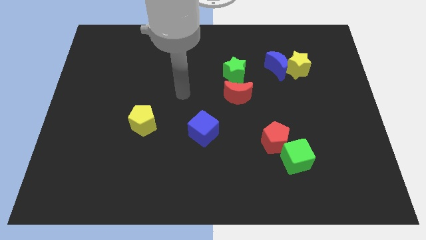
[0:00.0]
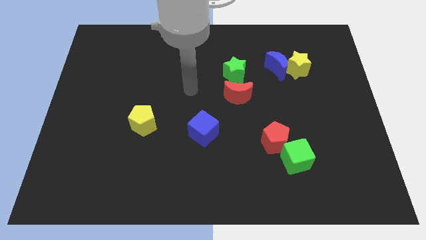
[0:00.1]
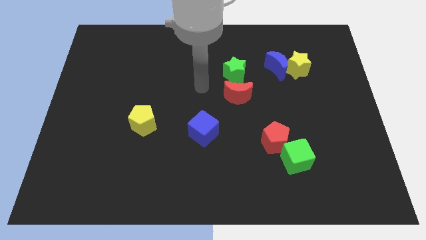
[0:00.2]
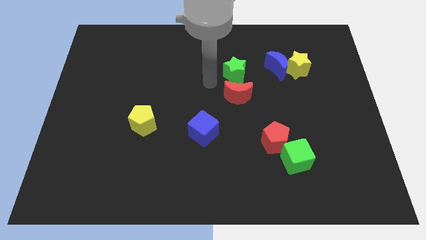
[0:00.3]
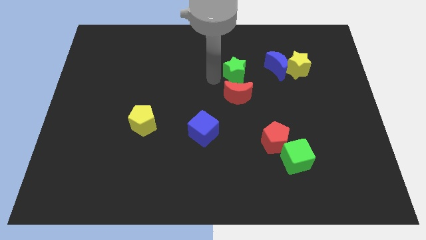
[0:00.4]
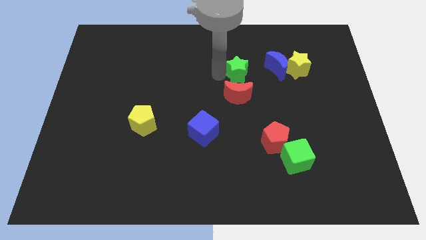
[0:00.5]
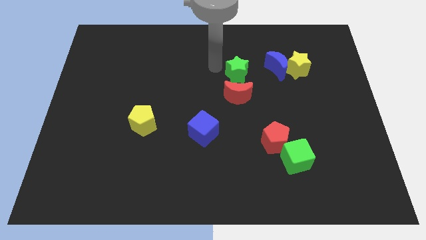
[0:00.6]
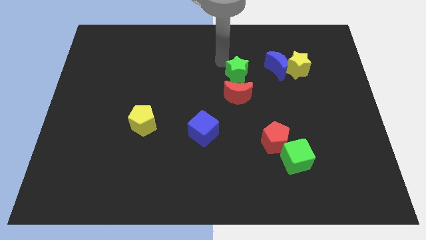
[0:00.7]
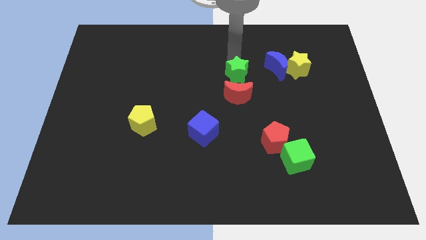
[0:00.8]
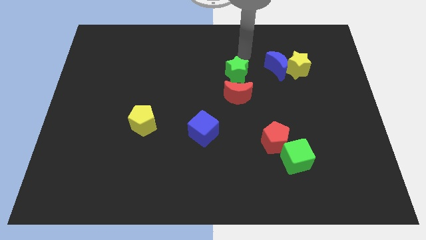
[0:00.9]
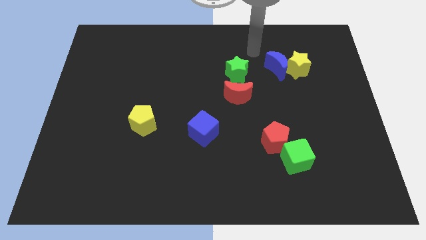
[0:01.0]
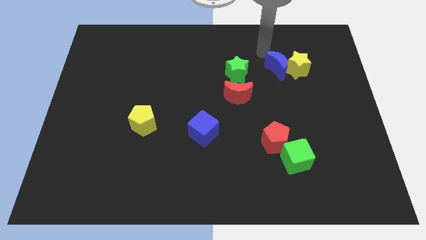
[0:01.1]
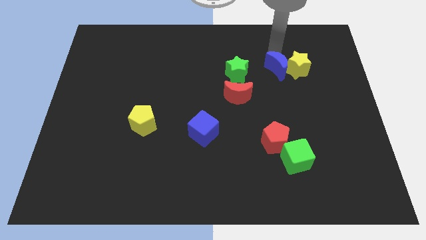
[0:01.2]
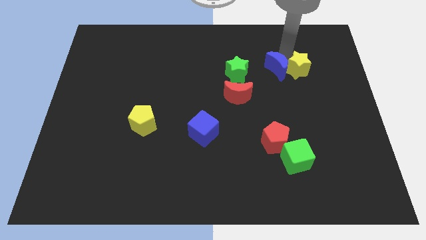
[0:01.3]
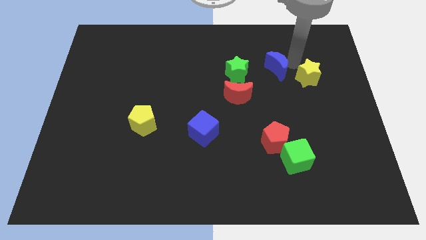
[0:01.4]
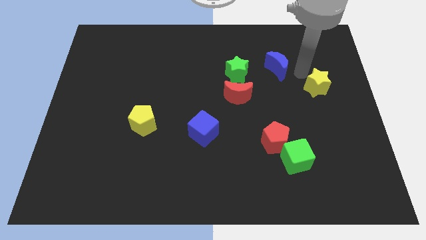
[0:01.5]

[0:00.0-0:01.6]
pull the blue moon apart from the yellow star

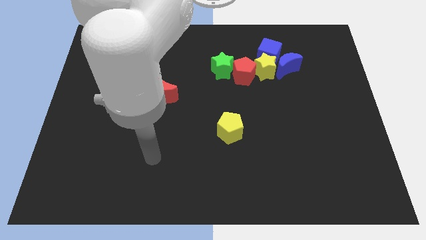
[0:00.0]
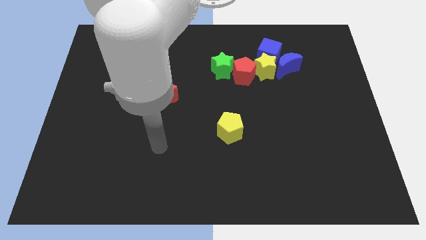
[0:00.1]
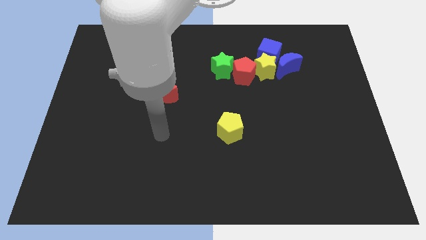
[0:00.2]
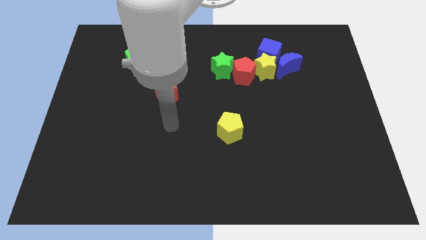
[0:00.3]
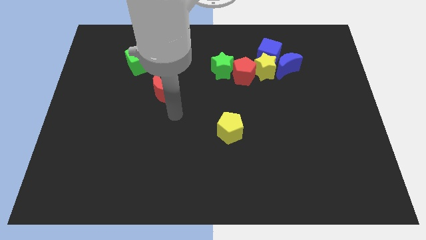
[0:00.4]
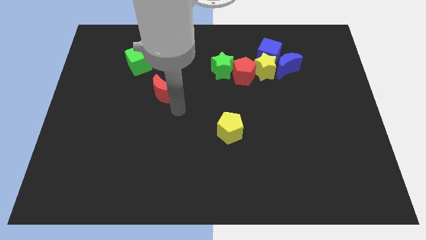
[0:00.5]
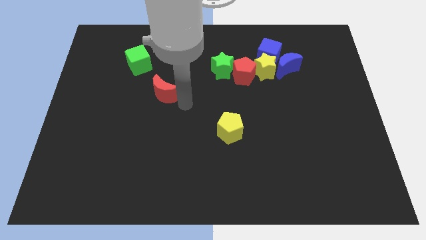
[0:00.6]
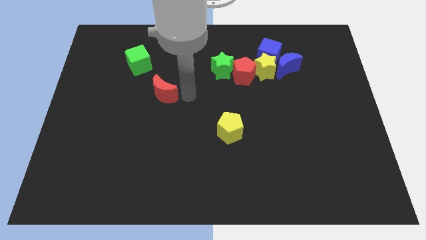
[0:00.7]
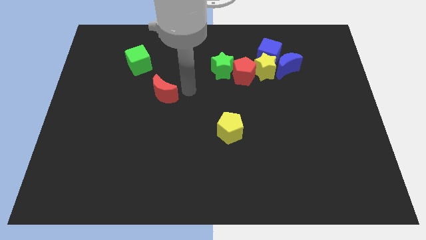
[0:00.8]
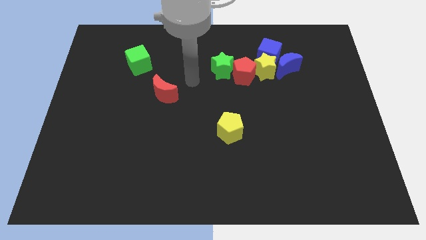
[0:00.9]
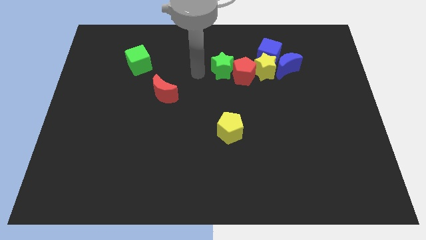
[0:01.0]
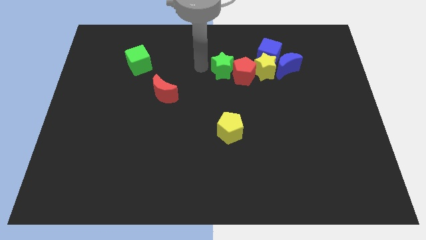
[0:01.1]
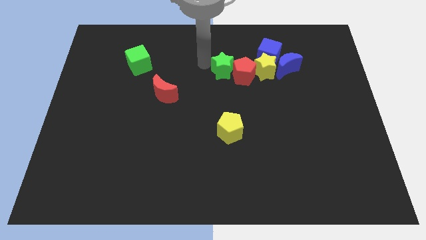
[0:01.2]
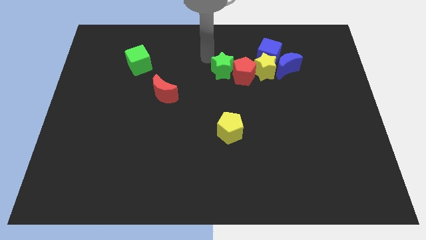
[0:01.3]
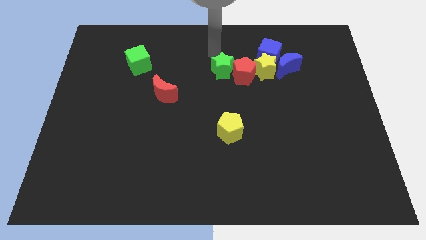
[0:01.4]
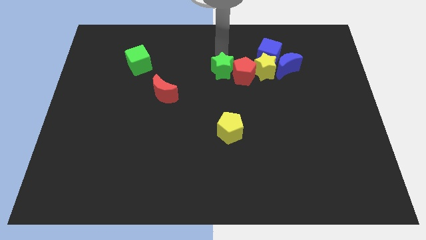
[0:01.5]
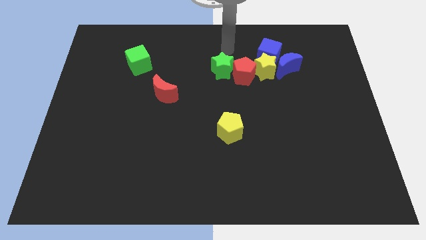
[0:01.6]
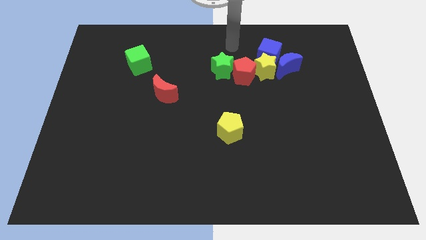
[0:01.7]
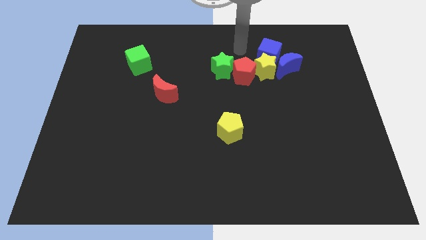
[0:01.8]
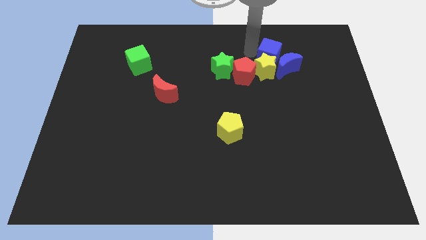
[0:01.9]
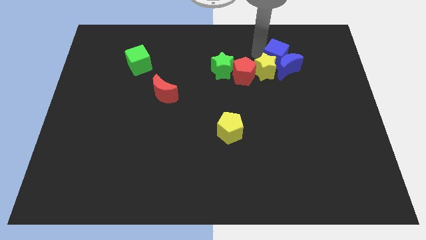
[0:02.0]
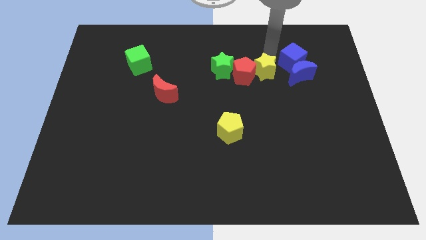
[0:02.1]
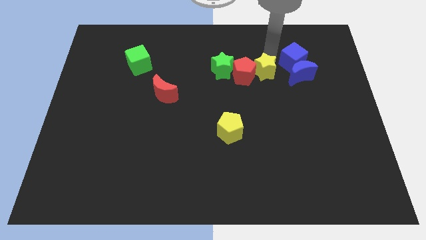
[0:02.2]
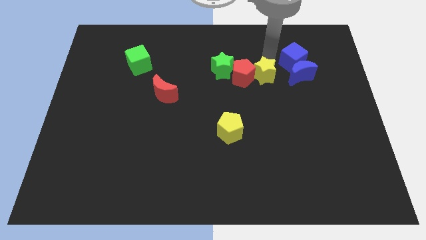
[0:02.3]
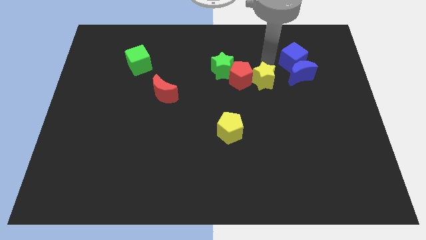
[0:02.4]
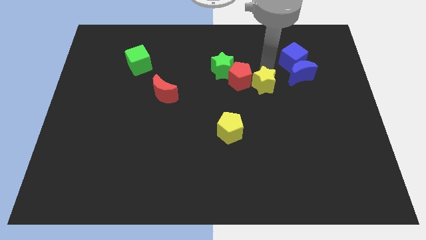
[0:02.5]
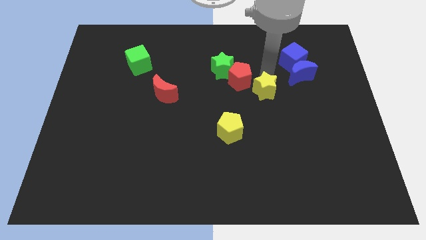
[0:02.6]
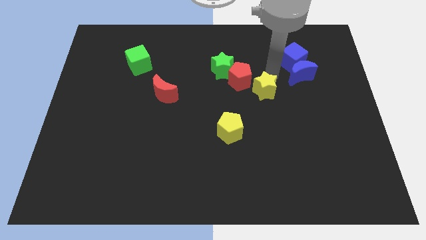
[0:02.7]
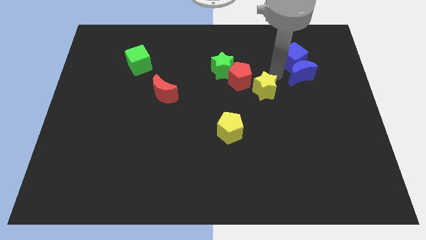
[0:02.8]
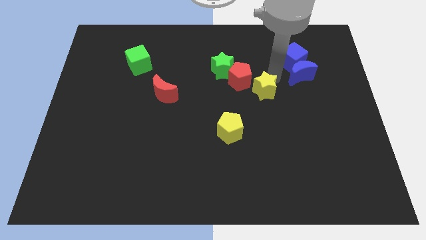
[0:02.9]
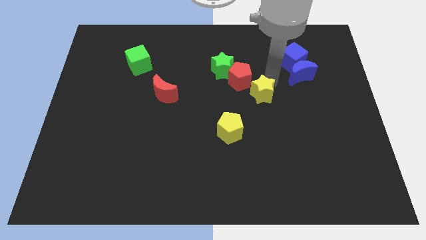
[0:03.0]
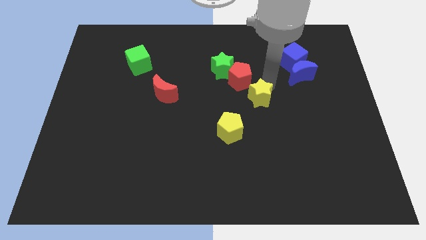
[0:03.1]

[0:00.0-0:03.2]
pull the yellow star apart from the blue cube, red pentagon, and blue moon

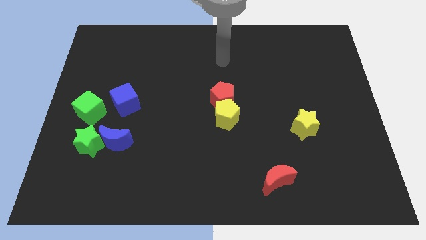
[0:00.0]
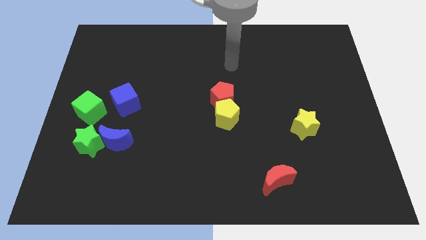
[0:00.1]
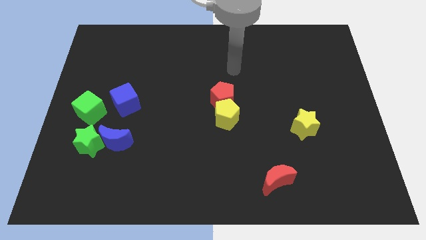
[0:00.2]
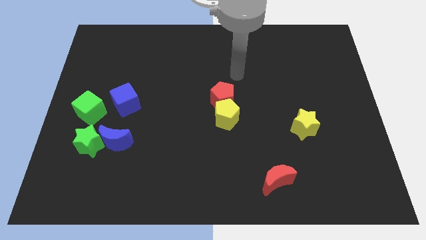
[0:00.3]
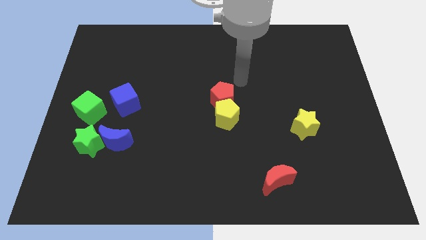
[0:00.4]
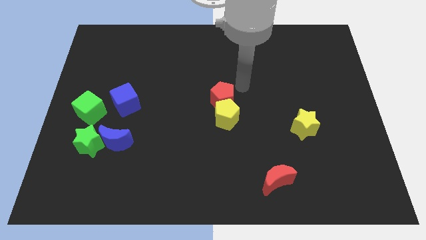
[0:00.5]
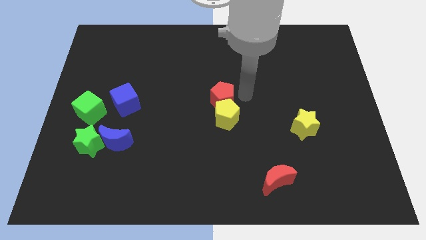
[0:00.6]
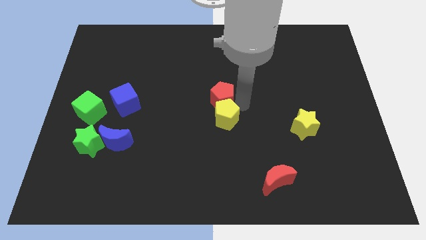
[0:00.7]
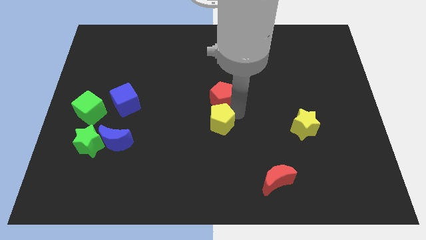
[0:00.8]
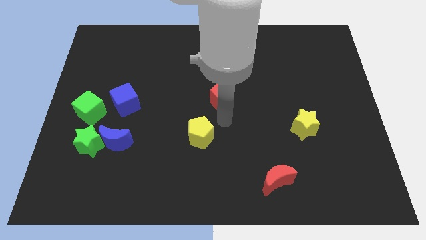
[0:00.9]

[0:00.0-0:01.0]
separate the red pentagon from the yellow pentagon

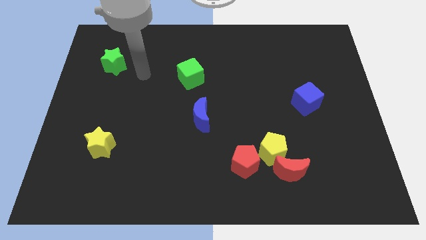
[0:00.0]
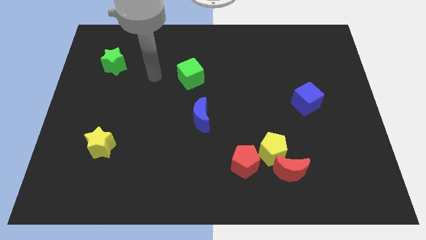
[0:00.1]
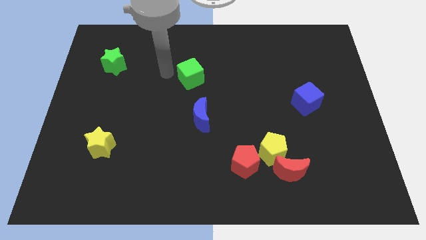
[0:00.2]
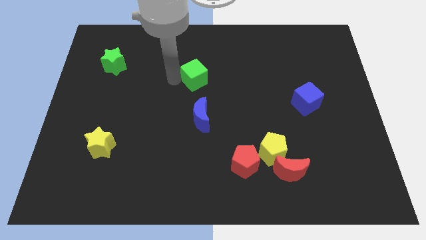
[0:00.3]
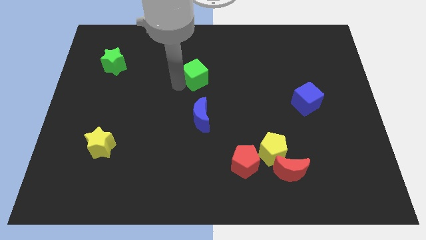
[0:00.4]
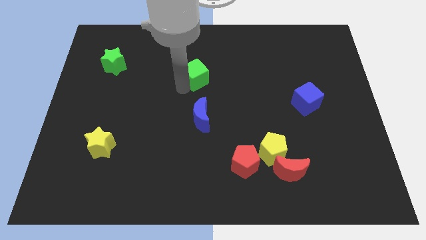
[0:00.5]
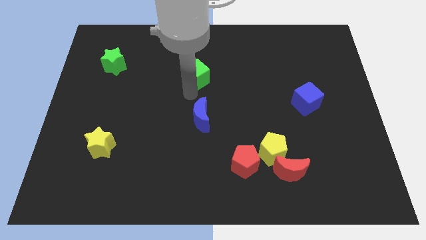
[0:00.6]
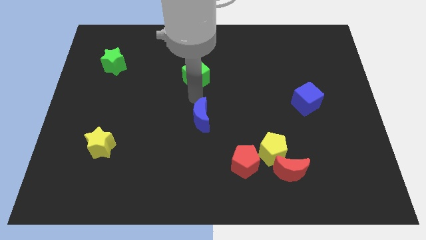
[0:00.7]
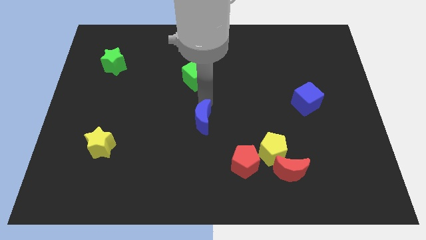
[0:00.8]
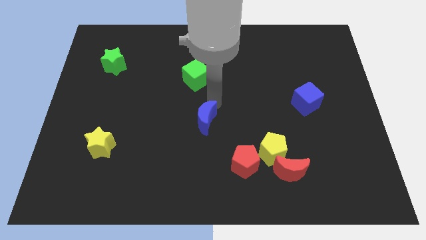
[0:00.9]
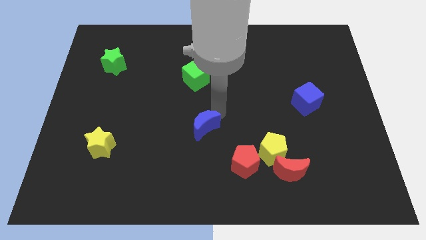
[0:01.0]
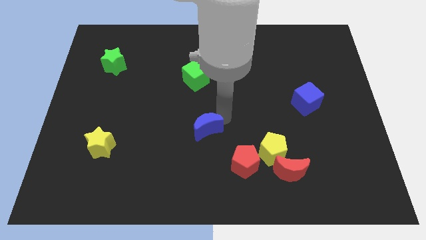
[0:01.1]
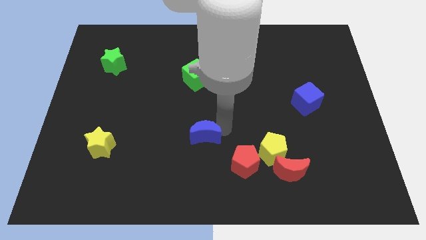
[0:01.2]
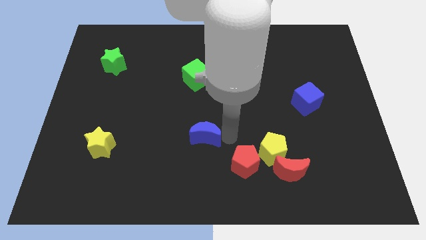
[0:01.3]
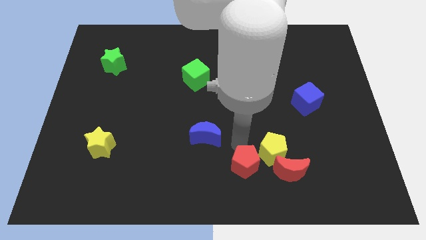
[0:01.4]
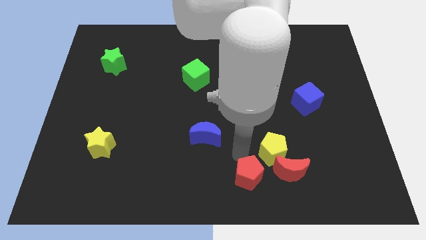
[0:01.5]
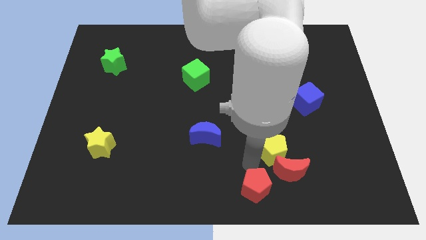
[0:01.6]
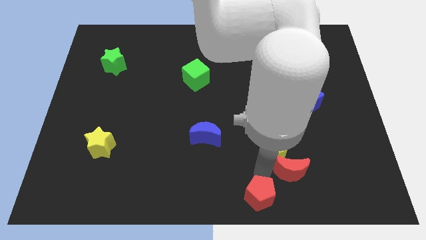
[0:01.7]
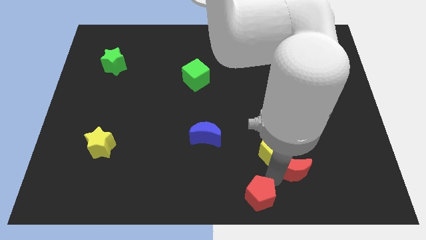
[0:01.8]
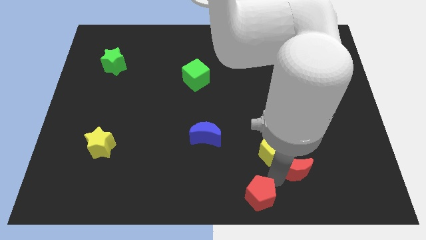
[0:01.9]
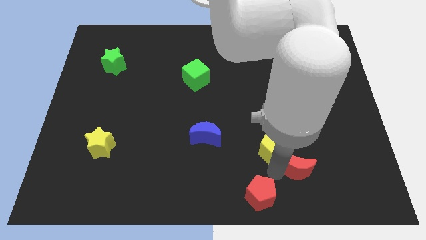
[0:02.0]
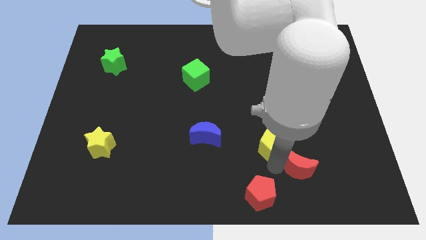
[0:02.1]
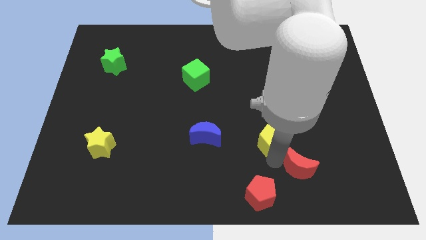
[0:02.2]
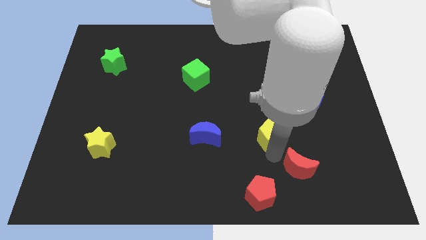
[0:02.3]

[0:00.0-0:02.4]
separate the yellow pentagon from the red moon and red pentagon

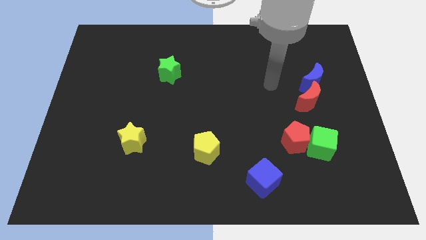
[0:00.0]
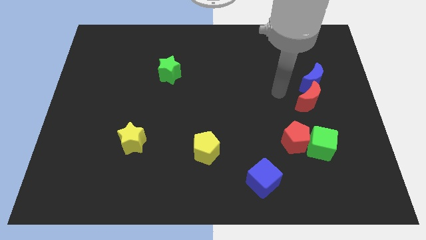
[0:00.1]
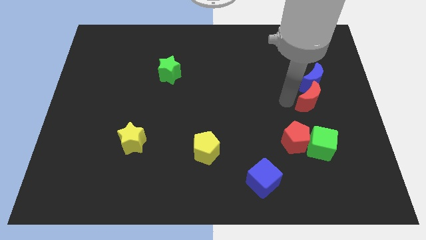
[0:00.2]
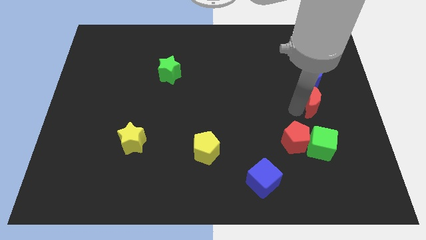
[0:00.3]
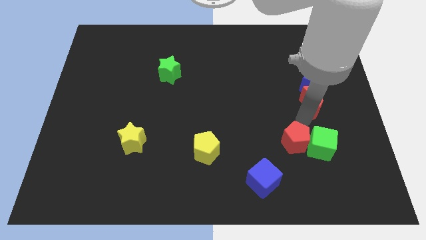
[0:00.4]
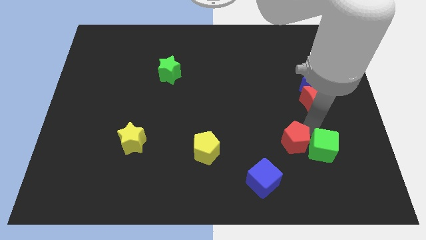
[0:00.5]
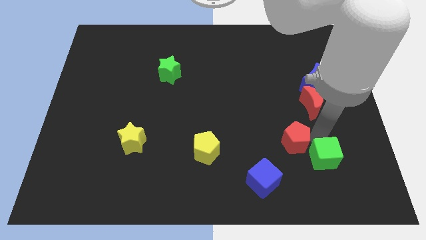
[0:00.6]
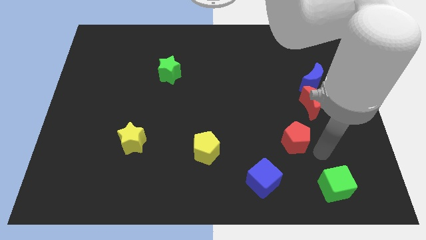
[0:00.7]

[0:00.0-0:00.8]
move the red pentagon away from the green cube

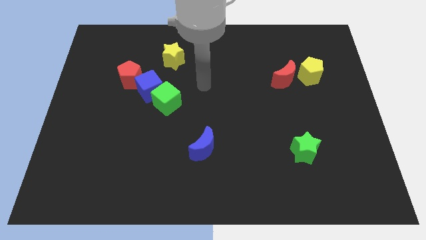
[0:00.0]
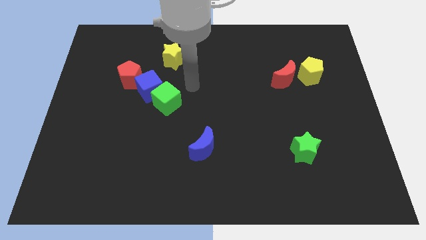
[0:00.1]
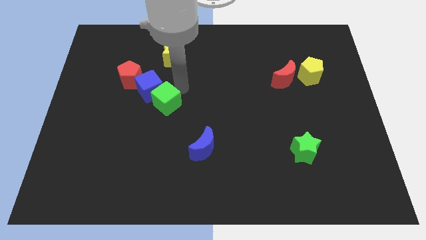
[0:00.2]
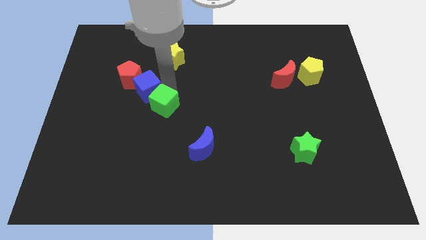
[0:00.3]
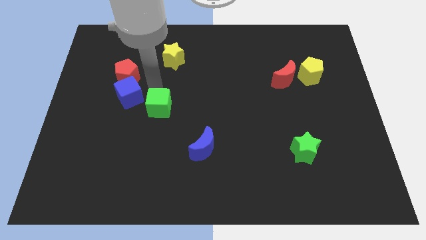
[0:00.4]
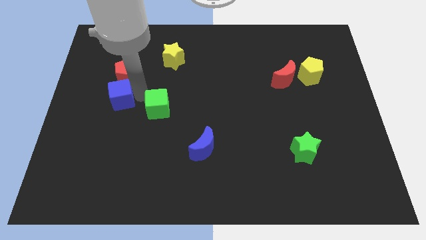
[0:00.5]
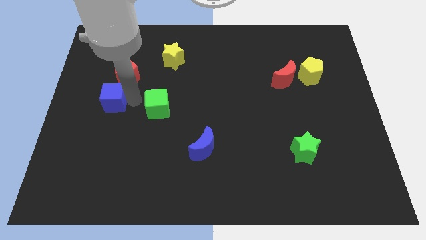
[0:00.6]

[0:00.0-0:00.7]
separate the green cube from the blue cube
